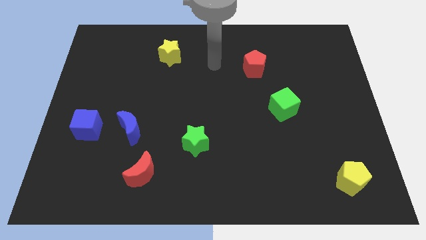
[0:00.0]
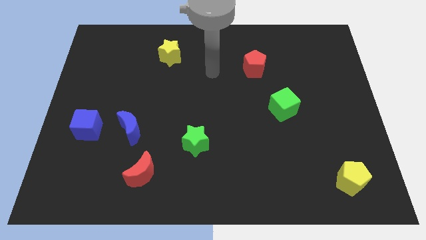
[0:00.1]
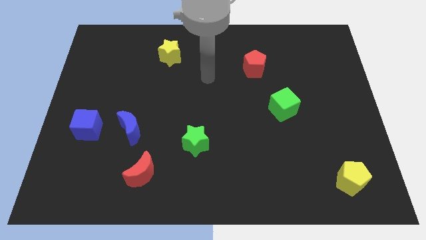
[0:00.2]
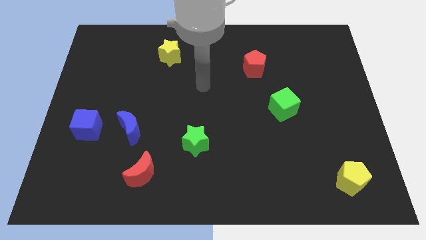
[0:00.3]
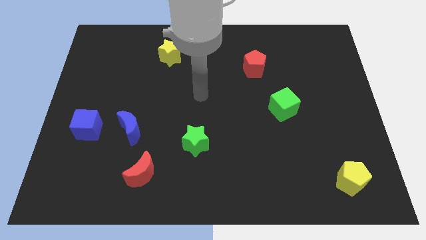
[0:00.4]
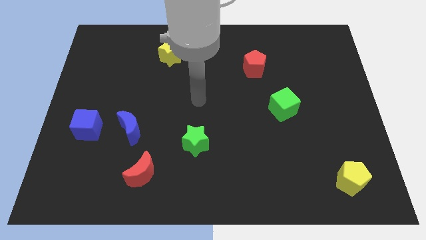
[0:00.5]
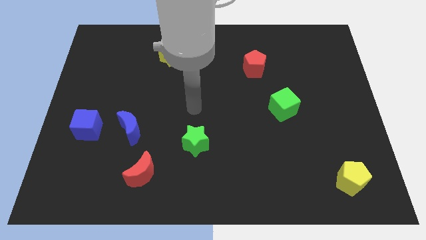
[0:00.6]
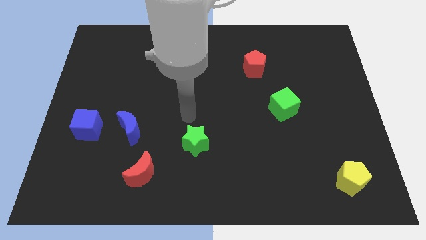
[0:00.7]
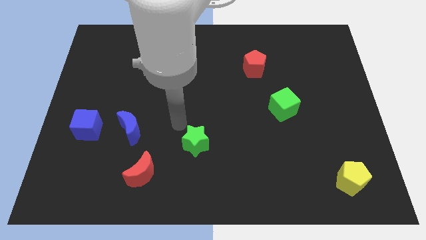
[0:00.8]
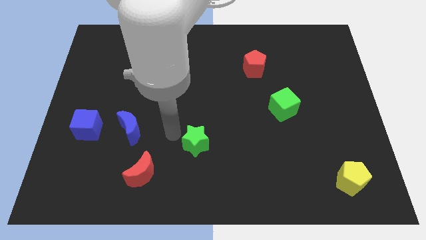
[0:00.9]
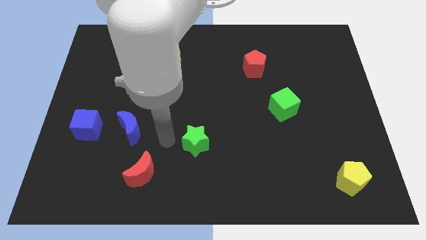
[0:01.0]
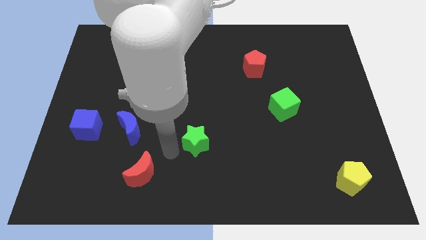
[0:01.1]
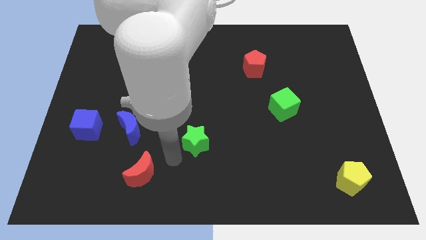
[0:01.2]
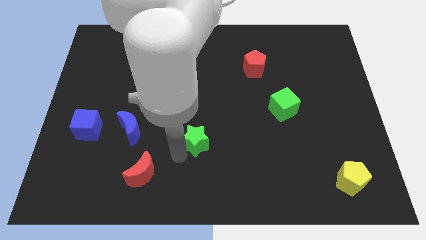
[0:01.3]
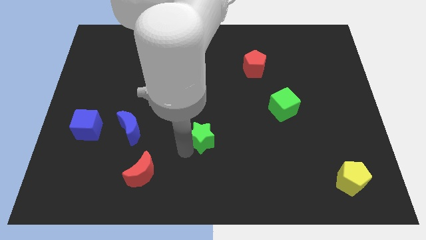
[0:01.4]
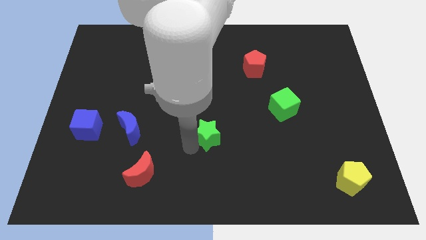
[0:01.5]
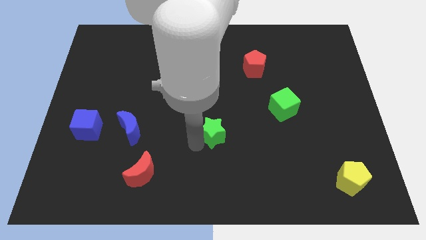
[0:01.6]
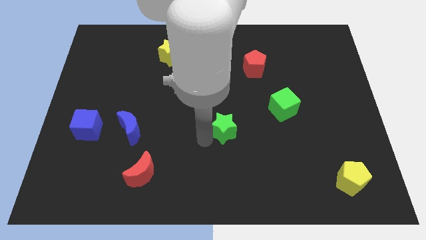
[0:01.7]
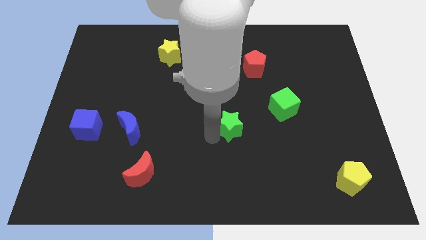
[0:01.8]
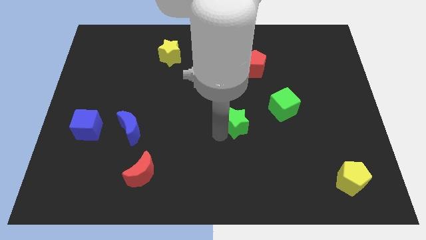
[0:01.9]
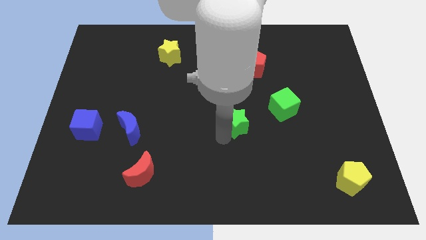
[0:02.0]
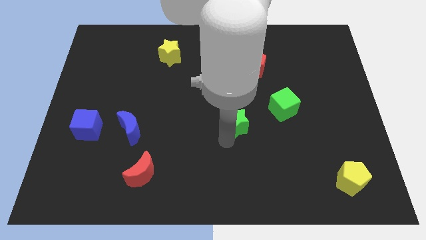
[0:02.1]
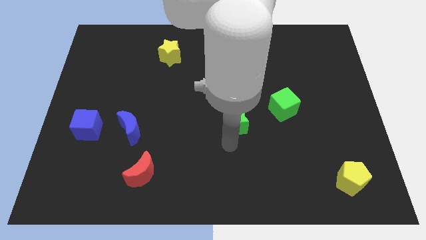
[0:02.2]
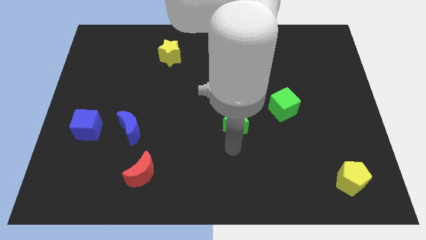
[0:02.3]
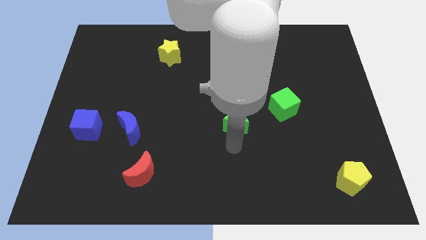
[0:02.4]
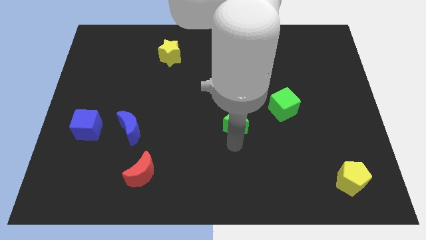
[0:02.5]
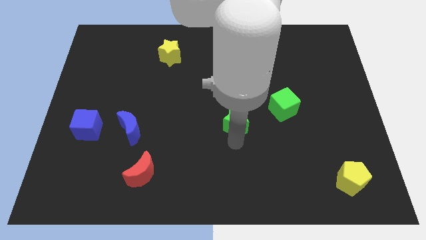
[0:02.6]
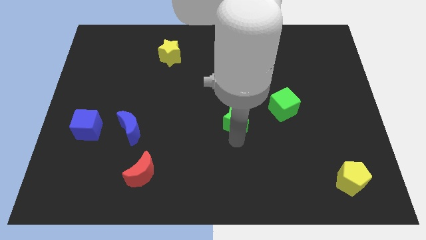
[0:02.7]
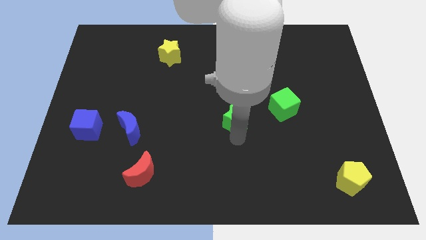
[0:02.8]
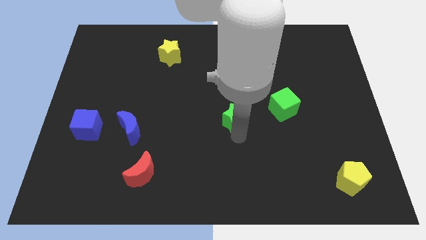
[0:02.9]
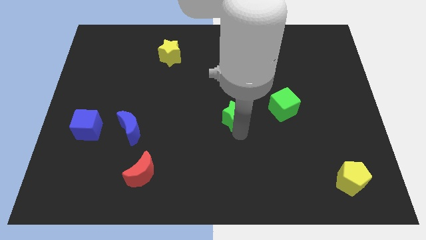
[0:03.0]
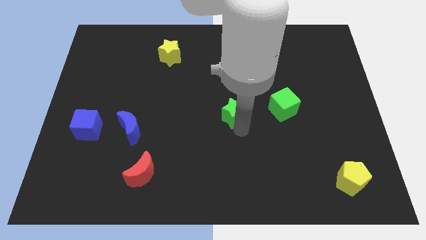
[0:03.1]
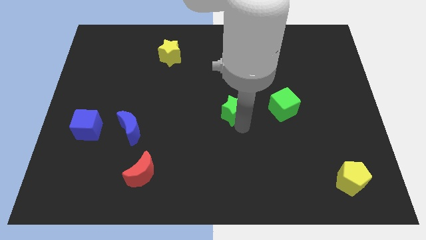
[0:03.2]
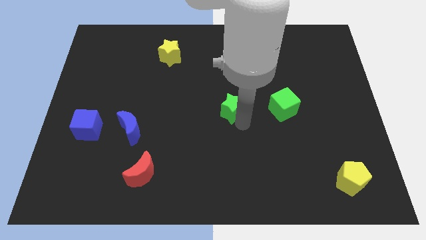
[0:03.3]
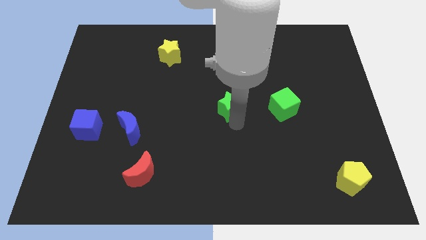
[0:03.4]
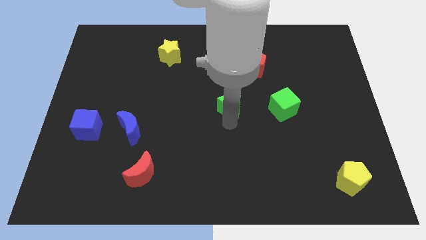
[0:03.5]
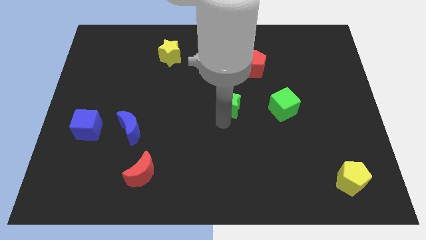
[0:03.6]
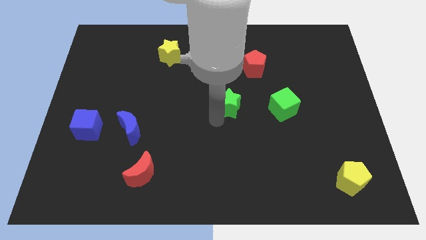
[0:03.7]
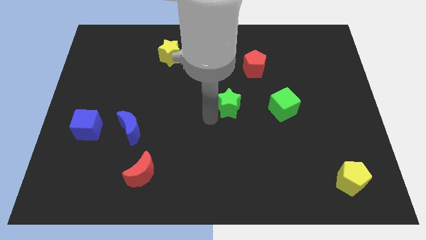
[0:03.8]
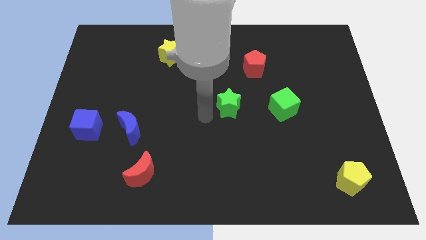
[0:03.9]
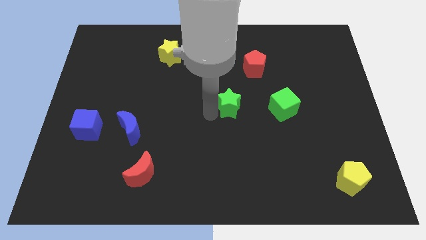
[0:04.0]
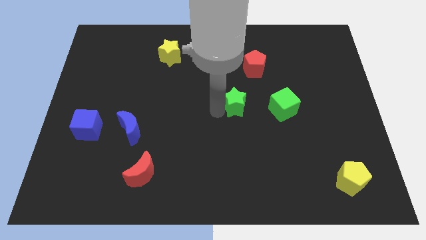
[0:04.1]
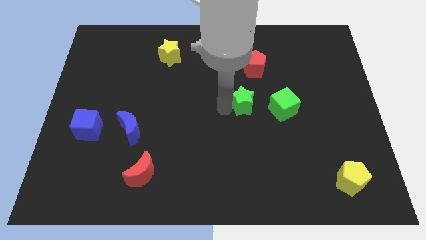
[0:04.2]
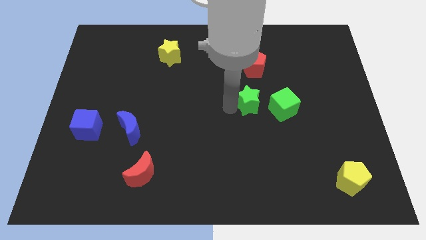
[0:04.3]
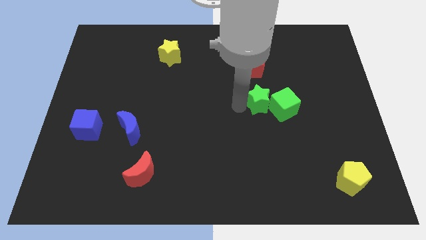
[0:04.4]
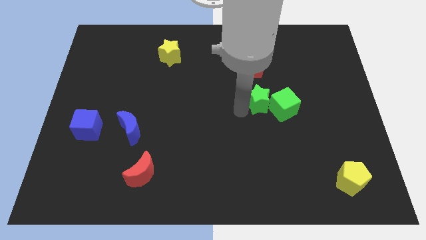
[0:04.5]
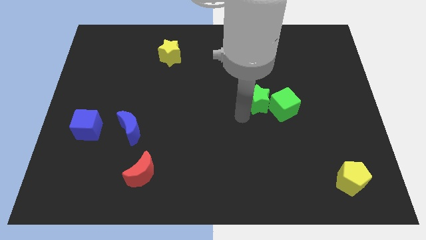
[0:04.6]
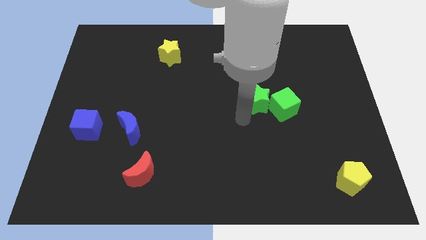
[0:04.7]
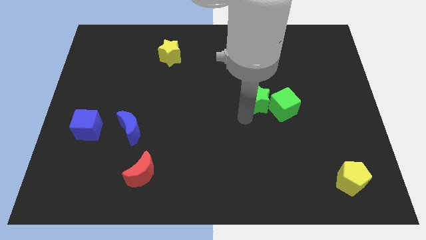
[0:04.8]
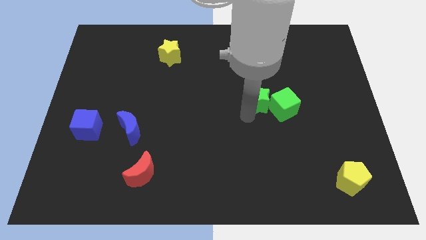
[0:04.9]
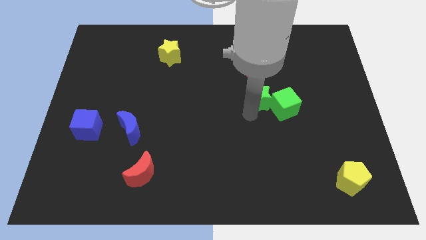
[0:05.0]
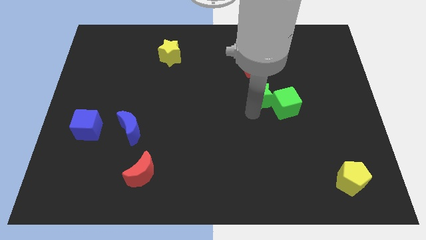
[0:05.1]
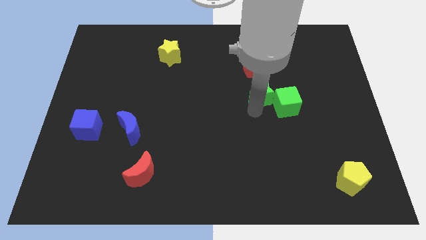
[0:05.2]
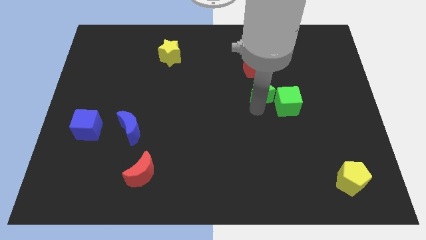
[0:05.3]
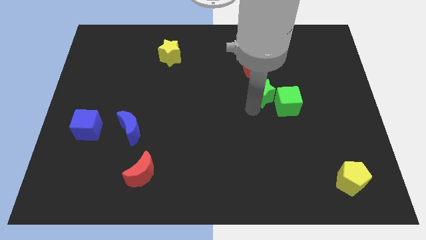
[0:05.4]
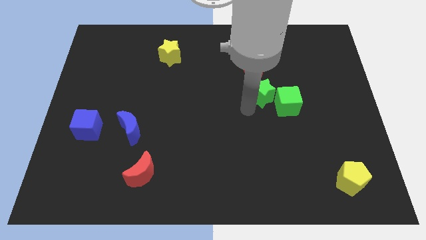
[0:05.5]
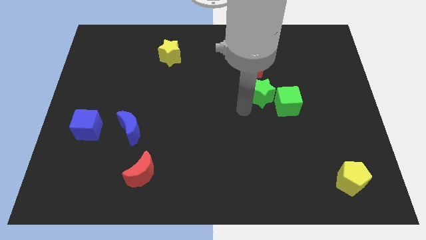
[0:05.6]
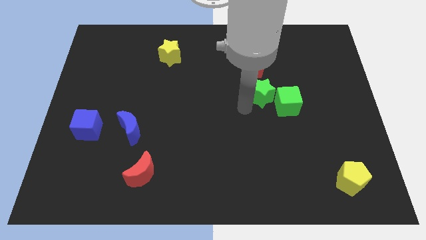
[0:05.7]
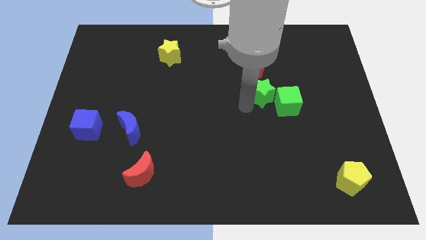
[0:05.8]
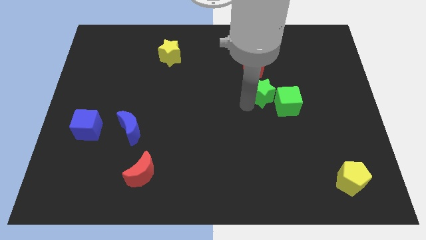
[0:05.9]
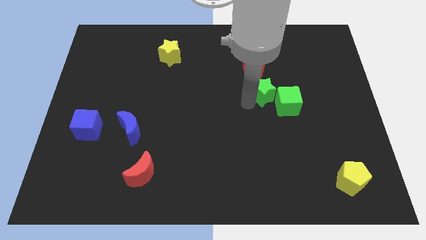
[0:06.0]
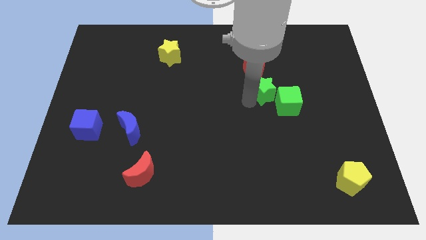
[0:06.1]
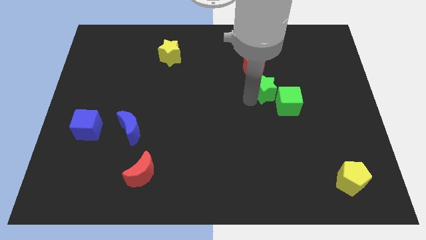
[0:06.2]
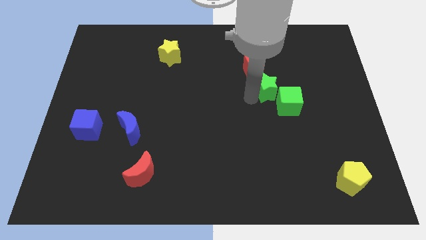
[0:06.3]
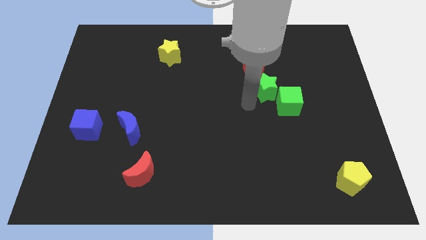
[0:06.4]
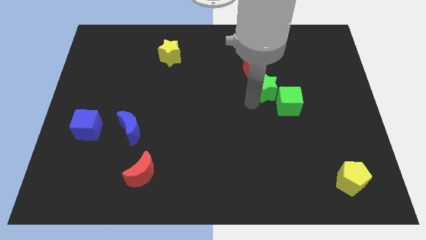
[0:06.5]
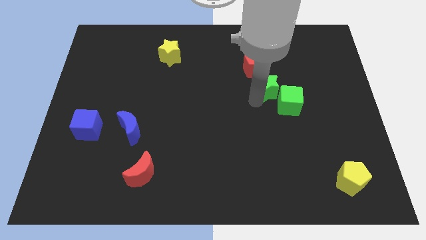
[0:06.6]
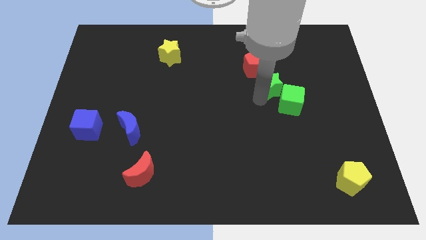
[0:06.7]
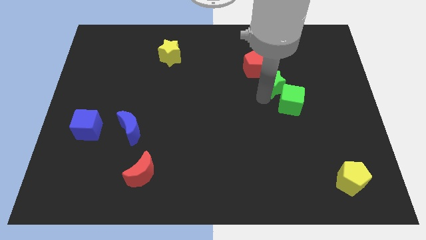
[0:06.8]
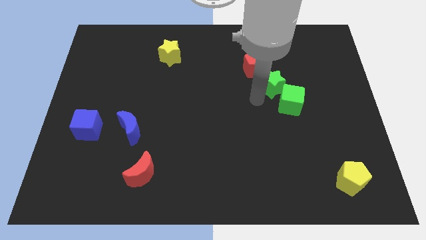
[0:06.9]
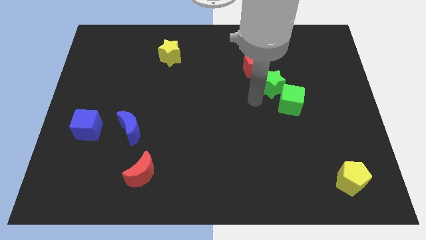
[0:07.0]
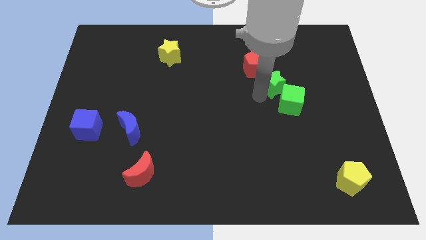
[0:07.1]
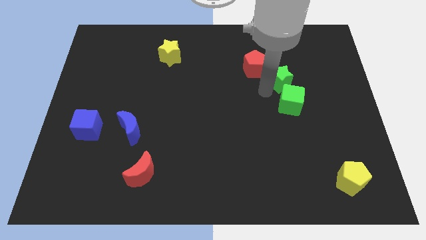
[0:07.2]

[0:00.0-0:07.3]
put the green star to the right of the red pentagon
